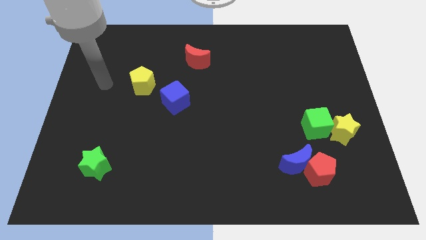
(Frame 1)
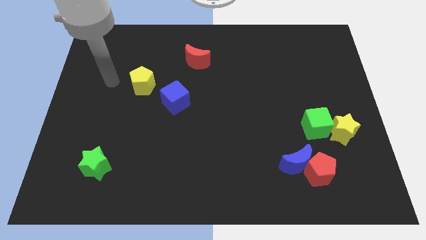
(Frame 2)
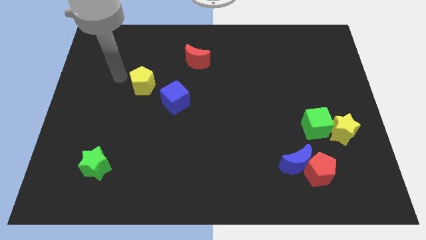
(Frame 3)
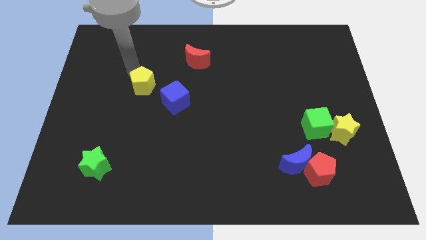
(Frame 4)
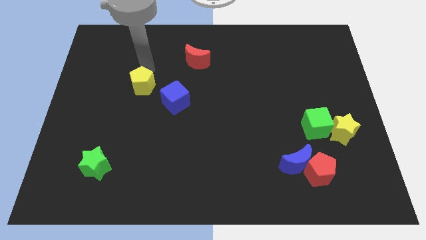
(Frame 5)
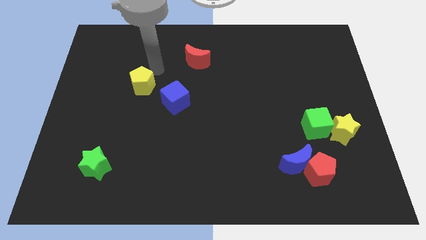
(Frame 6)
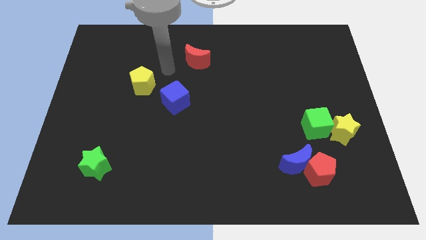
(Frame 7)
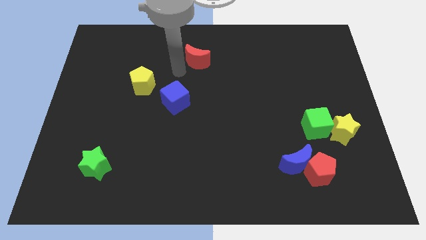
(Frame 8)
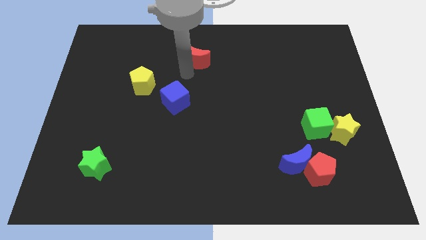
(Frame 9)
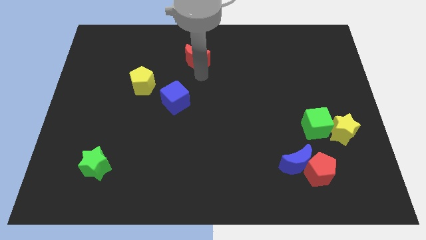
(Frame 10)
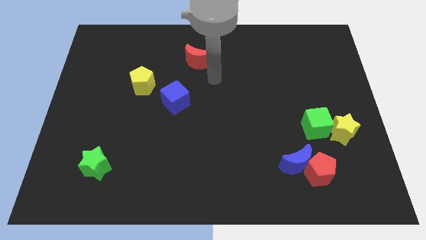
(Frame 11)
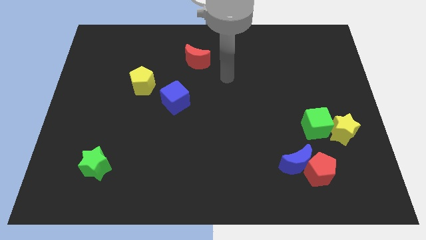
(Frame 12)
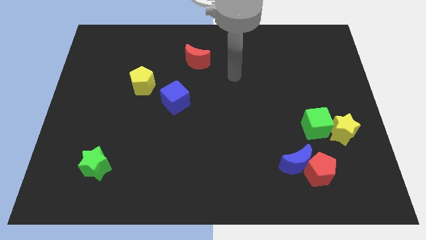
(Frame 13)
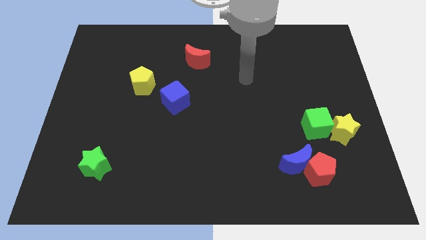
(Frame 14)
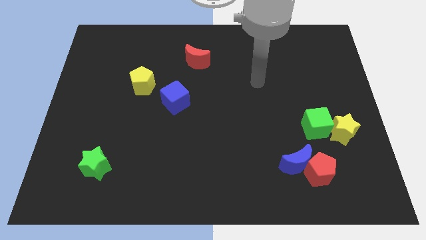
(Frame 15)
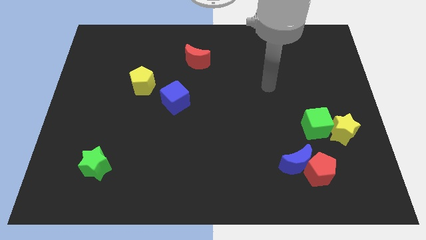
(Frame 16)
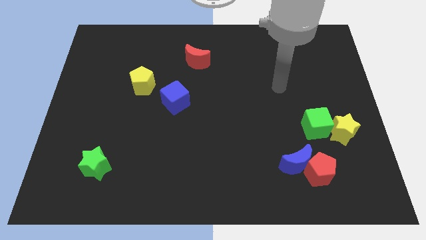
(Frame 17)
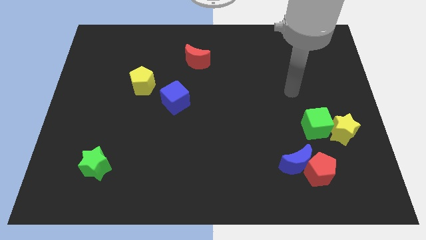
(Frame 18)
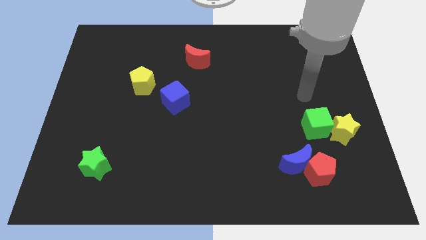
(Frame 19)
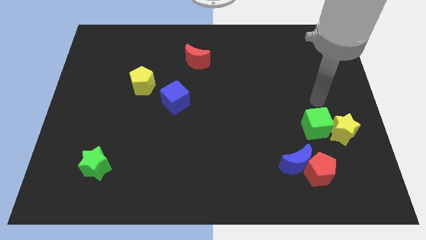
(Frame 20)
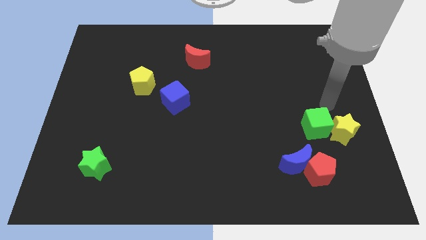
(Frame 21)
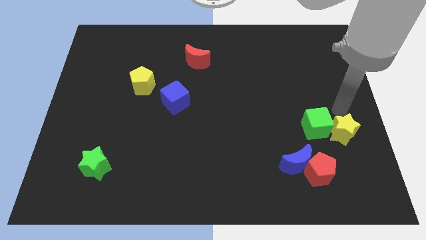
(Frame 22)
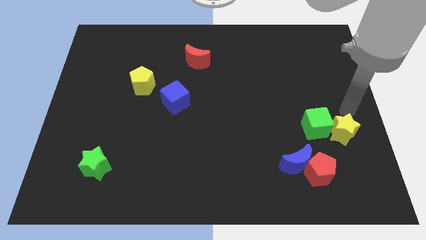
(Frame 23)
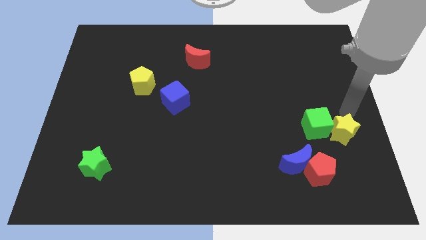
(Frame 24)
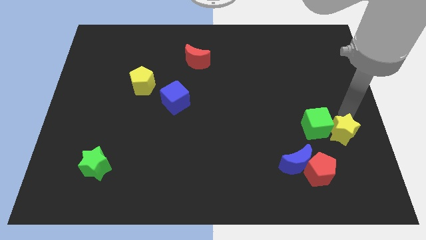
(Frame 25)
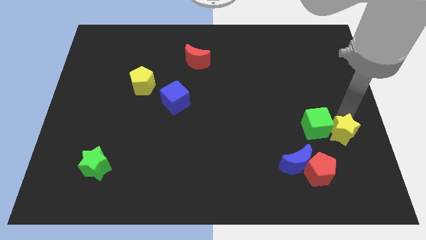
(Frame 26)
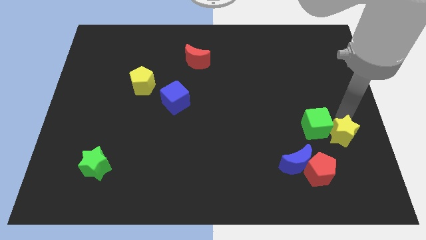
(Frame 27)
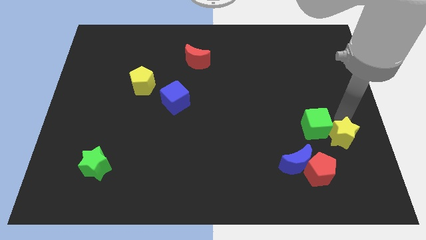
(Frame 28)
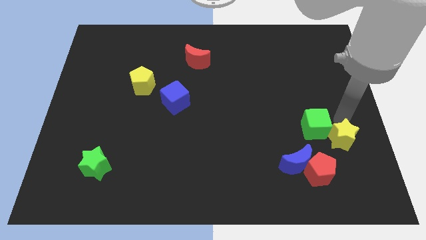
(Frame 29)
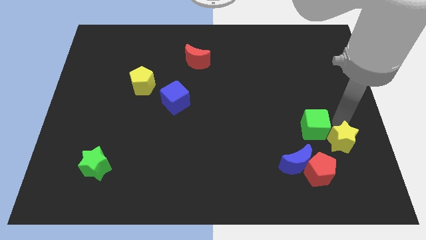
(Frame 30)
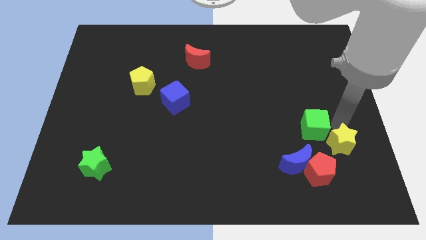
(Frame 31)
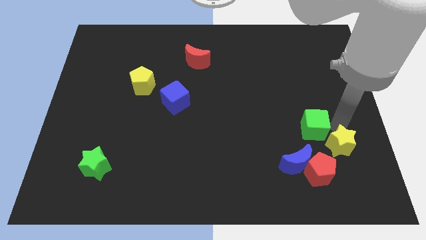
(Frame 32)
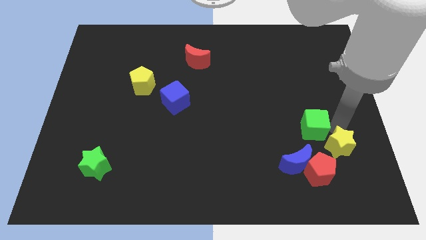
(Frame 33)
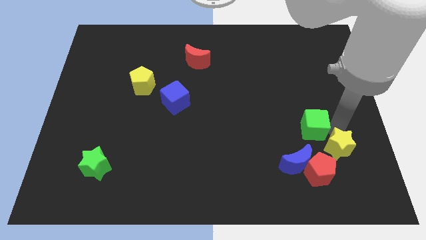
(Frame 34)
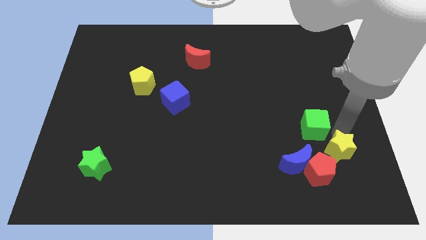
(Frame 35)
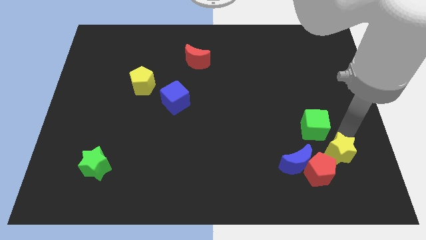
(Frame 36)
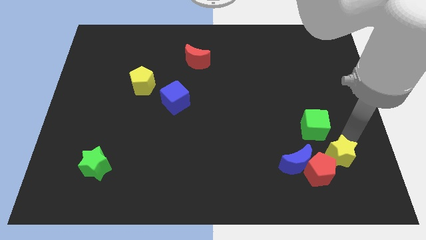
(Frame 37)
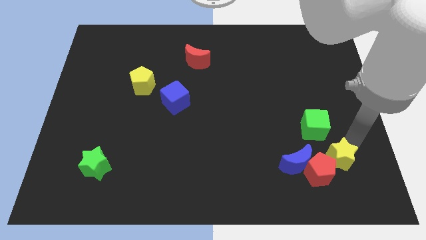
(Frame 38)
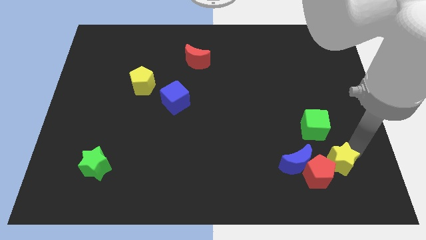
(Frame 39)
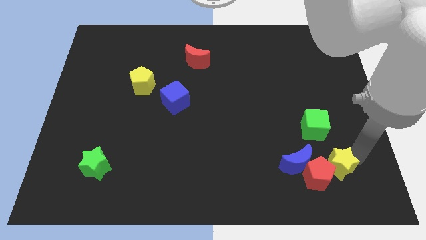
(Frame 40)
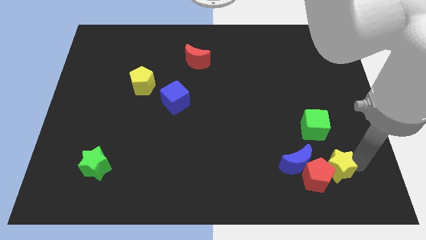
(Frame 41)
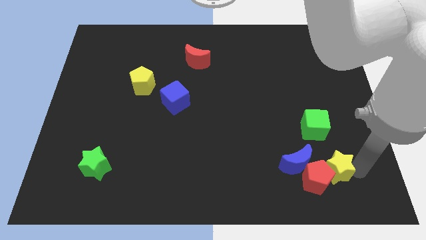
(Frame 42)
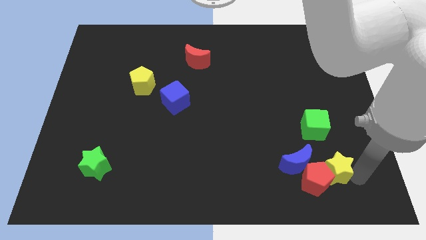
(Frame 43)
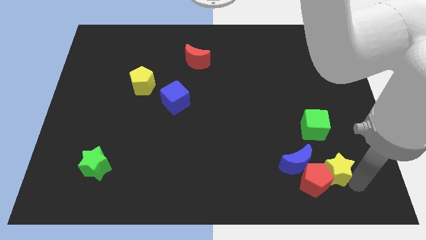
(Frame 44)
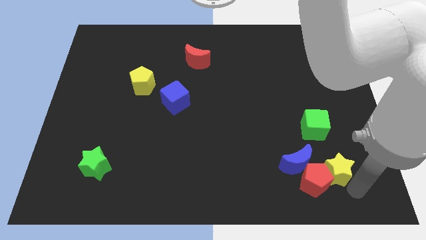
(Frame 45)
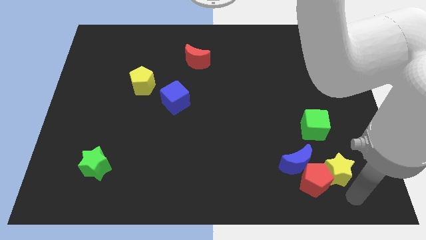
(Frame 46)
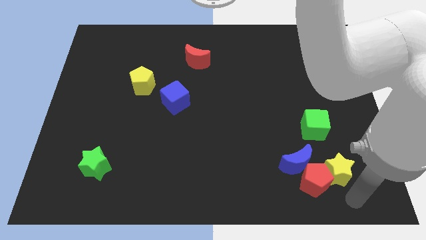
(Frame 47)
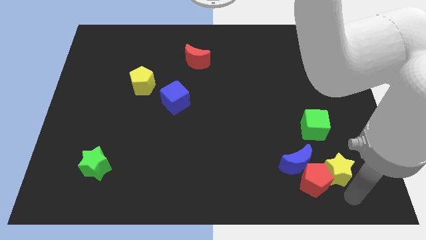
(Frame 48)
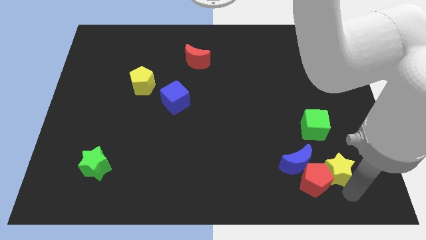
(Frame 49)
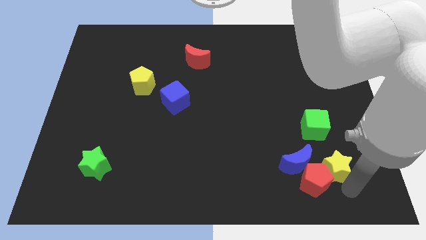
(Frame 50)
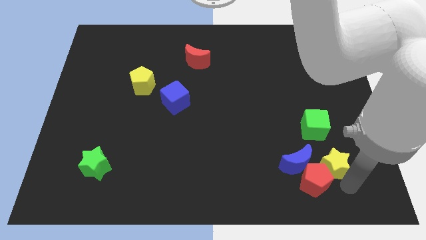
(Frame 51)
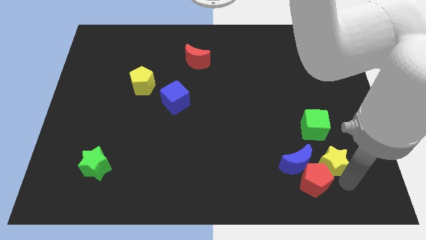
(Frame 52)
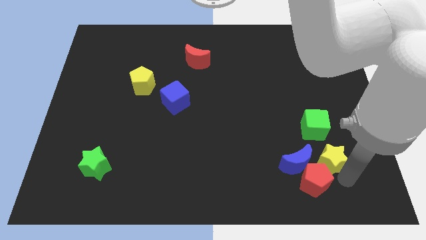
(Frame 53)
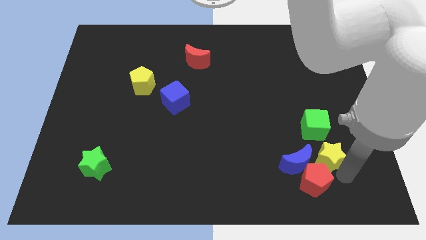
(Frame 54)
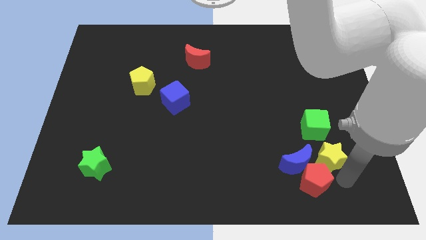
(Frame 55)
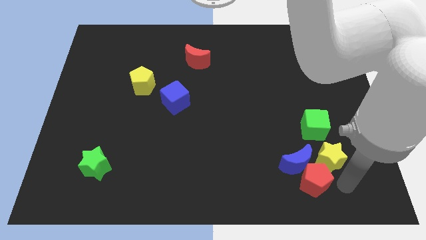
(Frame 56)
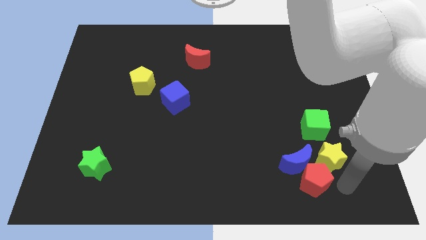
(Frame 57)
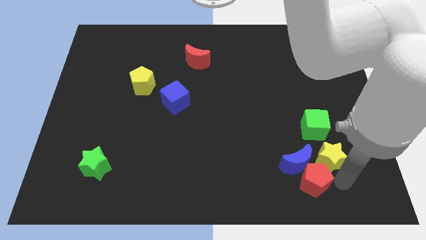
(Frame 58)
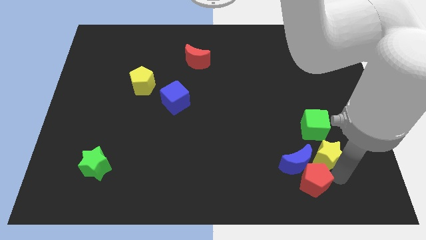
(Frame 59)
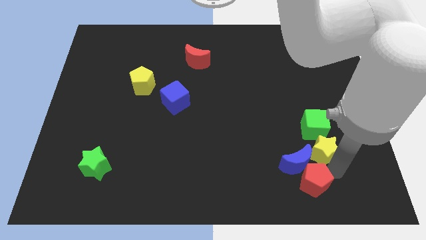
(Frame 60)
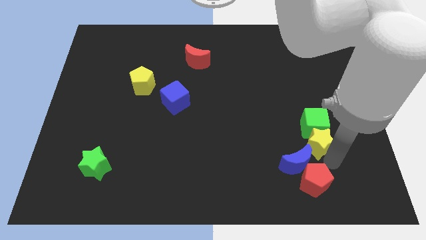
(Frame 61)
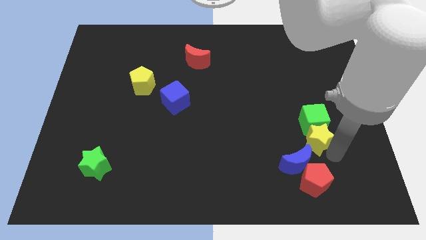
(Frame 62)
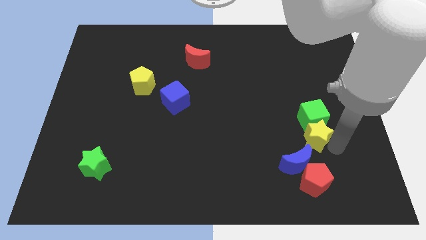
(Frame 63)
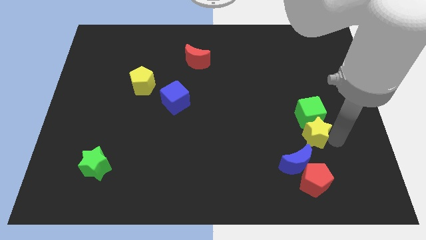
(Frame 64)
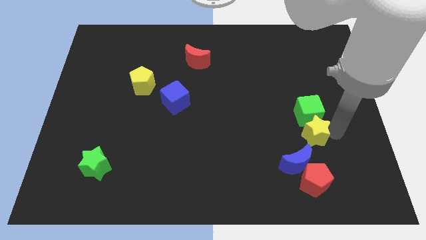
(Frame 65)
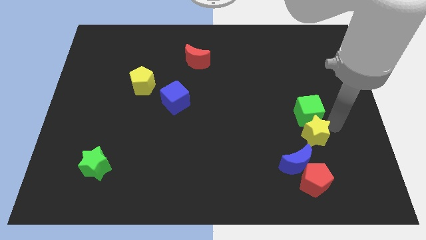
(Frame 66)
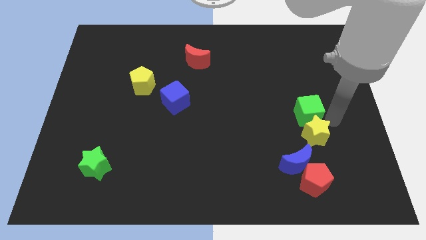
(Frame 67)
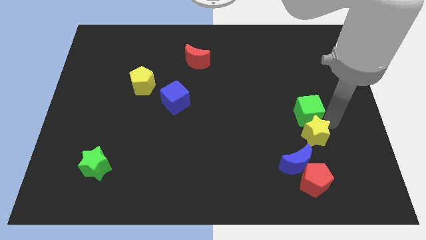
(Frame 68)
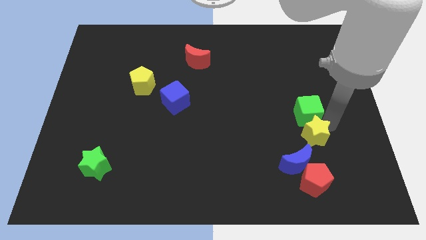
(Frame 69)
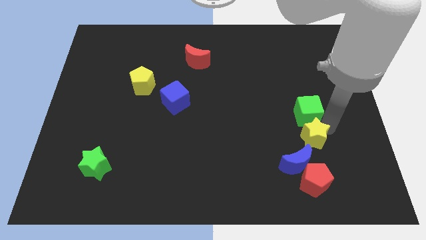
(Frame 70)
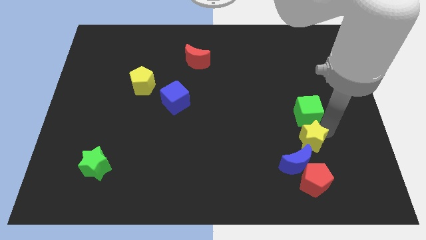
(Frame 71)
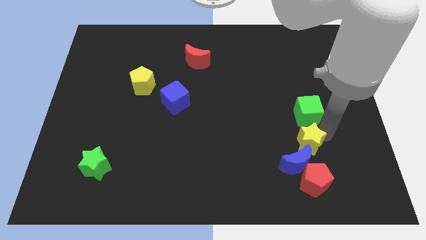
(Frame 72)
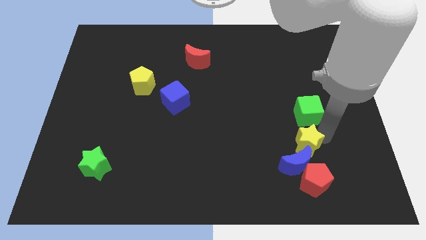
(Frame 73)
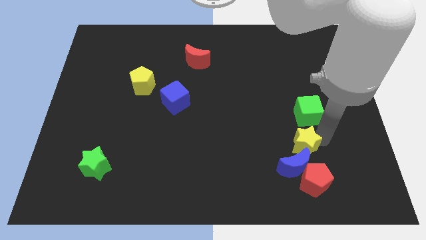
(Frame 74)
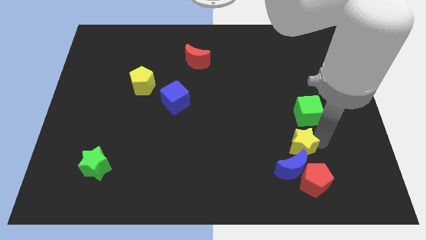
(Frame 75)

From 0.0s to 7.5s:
slide the yellow star to the top left side of the red pentagon
